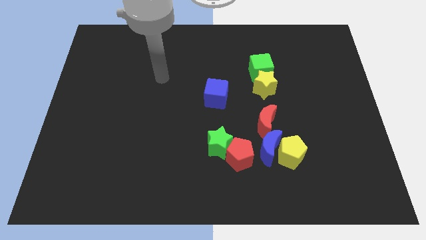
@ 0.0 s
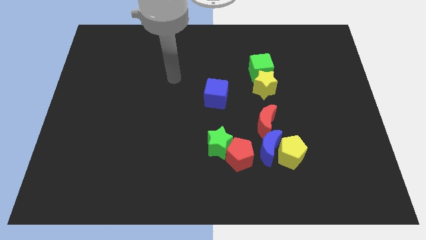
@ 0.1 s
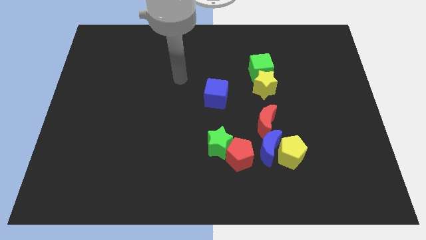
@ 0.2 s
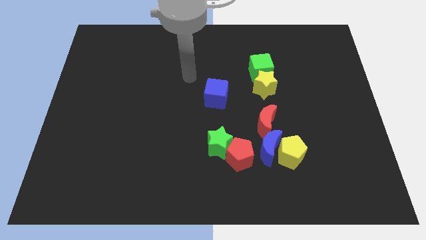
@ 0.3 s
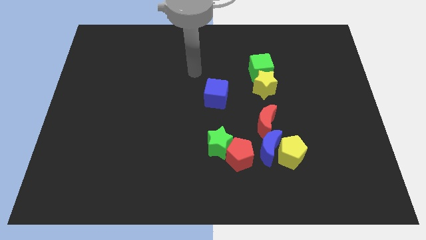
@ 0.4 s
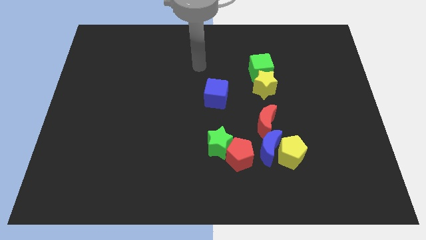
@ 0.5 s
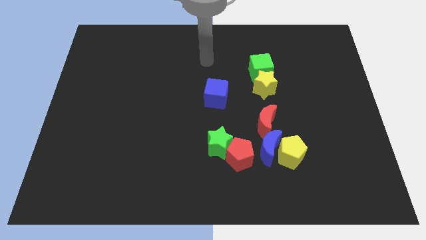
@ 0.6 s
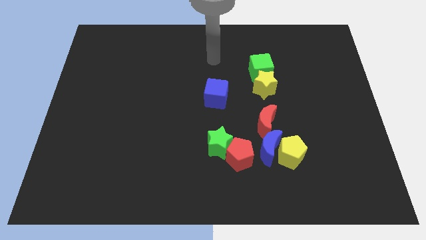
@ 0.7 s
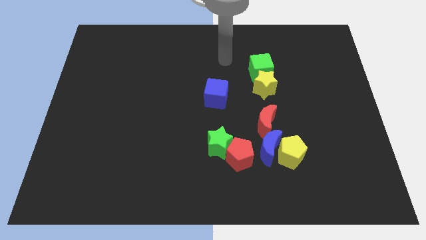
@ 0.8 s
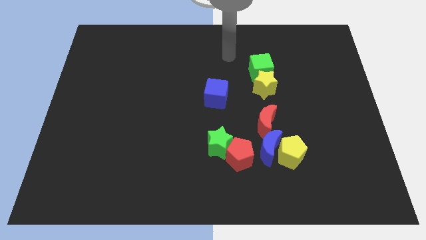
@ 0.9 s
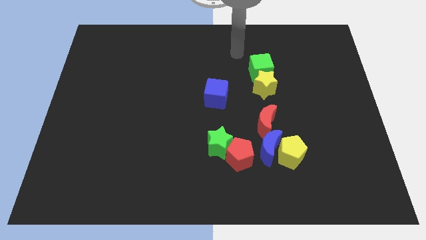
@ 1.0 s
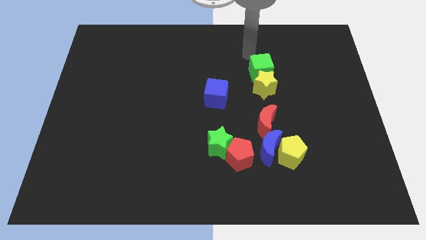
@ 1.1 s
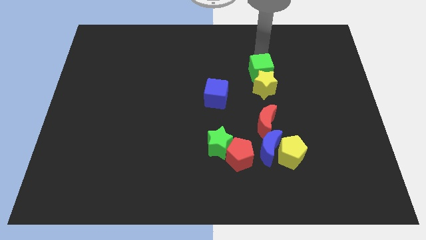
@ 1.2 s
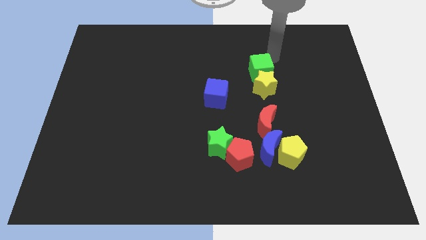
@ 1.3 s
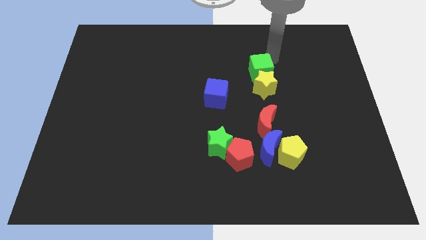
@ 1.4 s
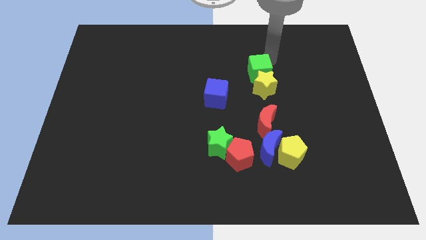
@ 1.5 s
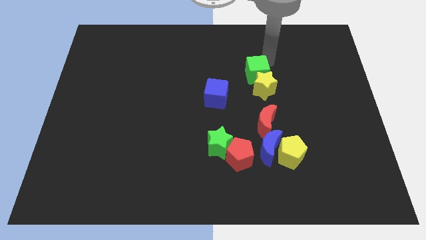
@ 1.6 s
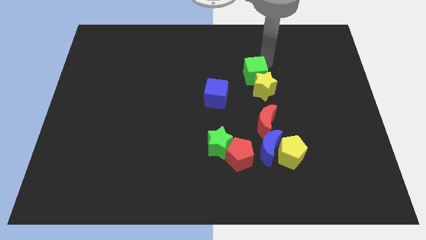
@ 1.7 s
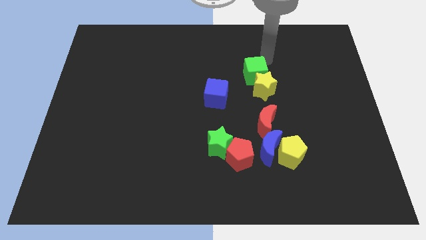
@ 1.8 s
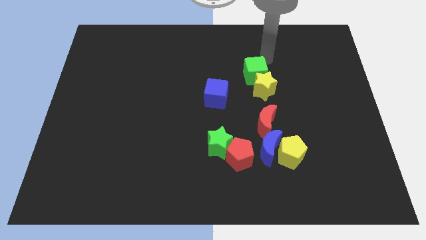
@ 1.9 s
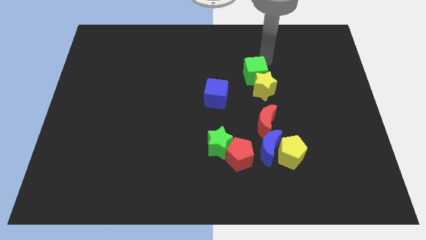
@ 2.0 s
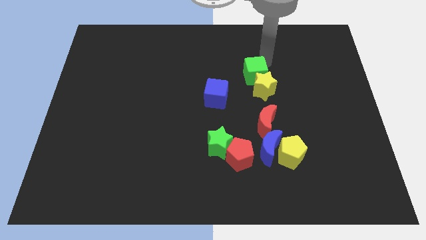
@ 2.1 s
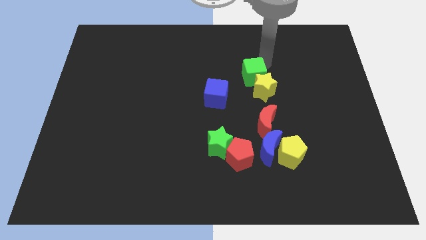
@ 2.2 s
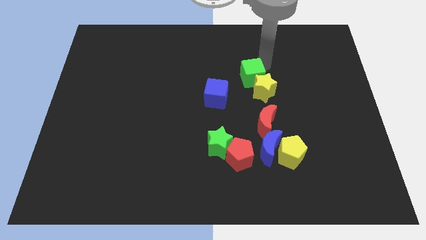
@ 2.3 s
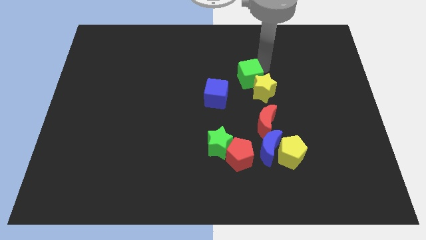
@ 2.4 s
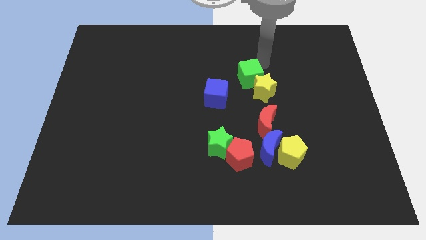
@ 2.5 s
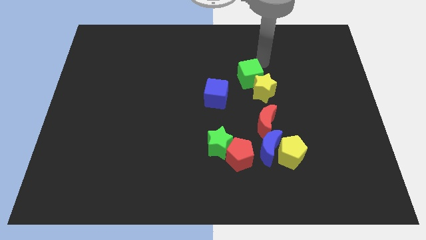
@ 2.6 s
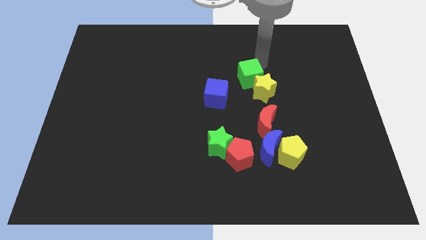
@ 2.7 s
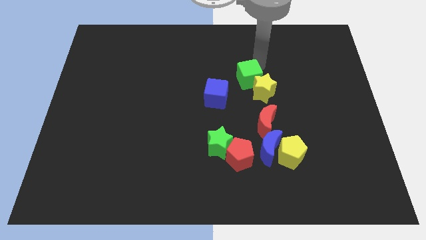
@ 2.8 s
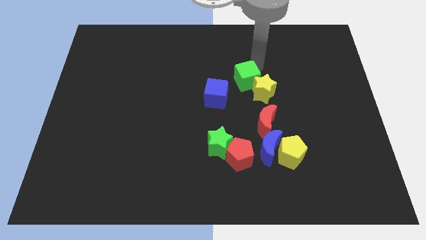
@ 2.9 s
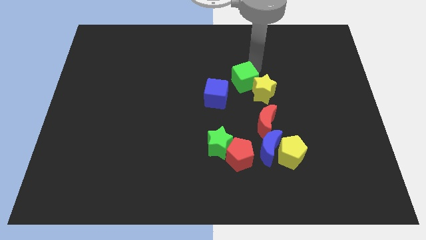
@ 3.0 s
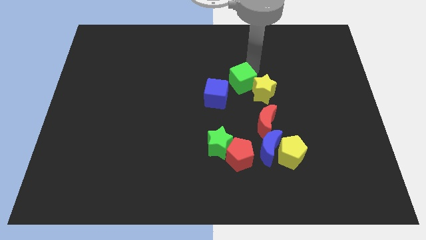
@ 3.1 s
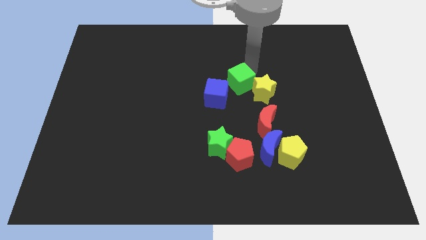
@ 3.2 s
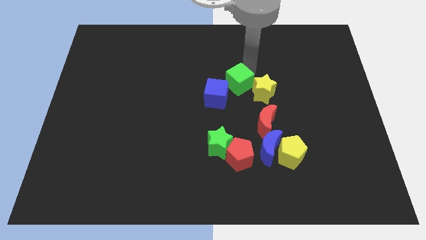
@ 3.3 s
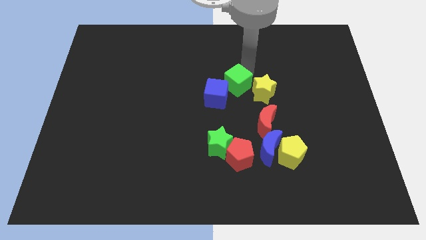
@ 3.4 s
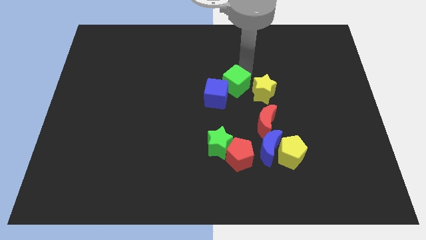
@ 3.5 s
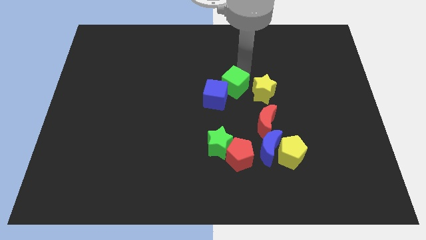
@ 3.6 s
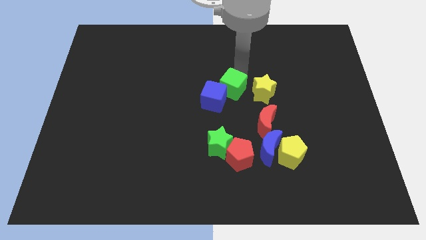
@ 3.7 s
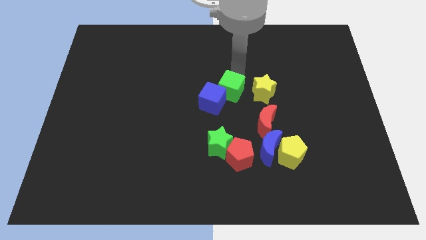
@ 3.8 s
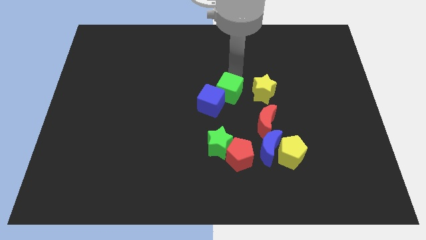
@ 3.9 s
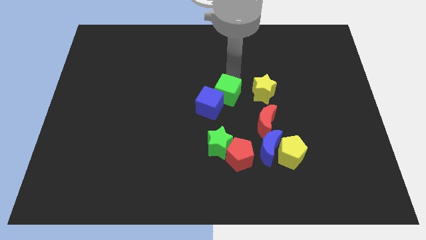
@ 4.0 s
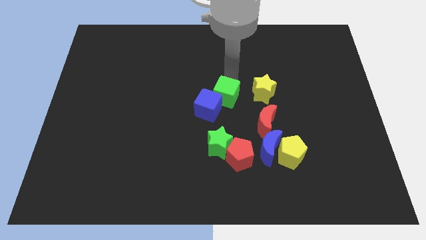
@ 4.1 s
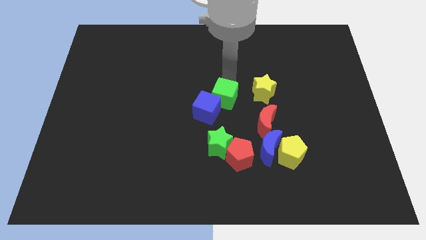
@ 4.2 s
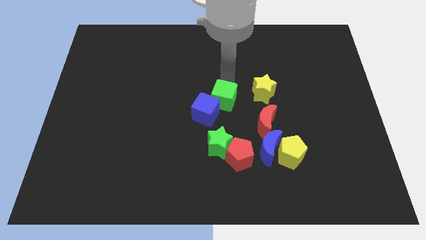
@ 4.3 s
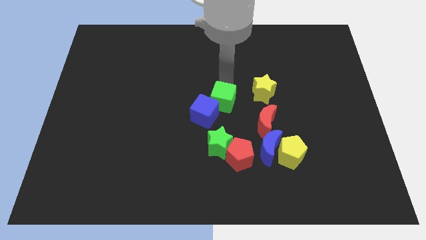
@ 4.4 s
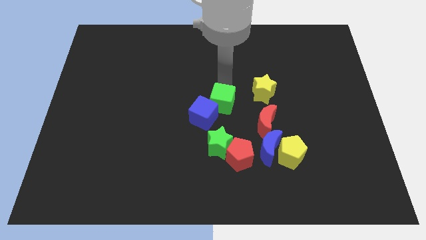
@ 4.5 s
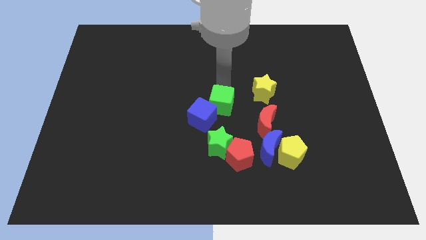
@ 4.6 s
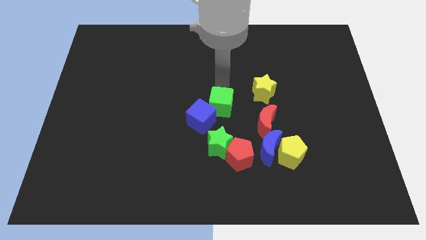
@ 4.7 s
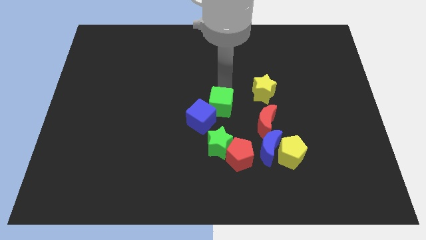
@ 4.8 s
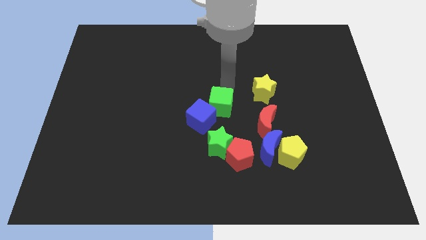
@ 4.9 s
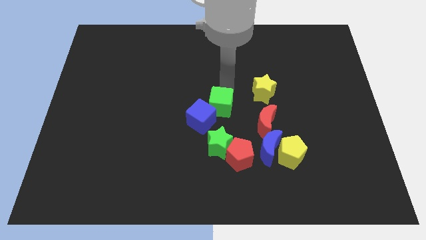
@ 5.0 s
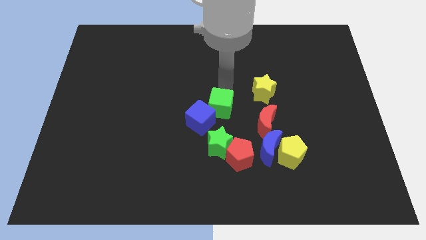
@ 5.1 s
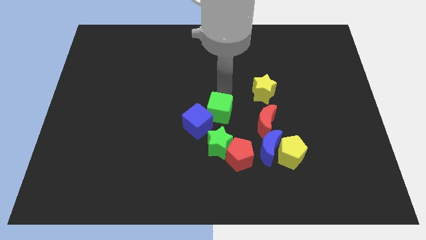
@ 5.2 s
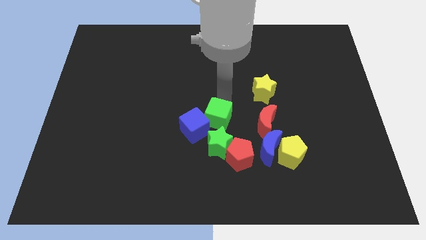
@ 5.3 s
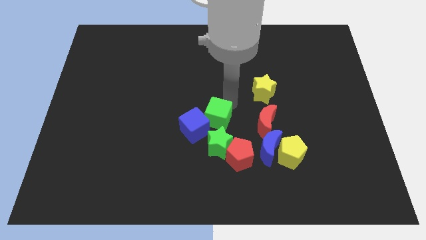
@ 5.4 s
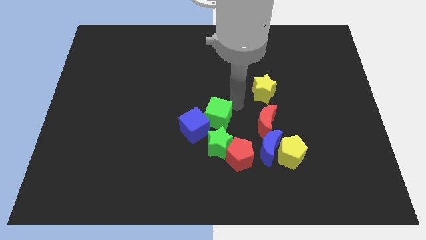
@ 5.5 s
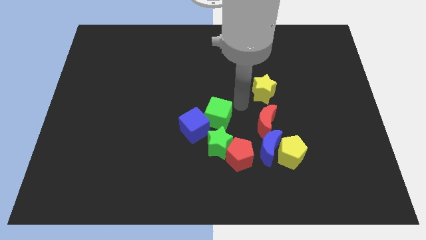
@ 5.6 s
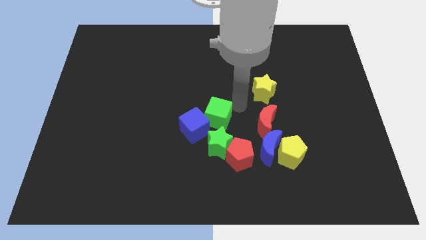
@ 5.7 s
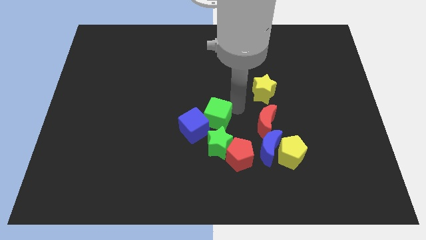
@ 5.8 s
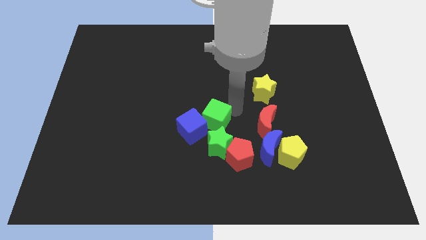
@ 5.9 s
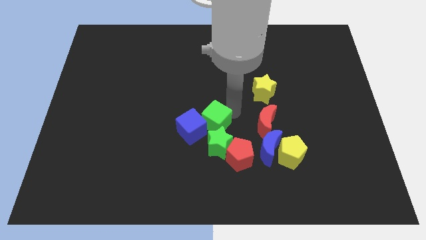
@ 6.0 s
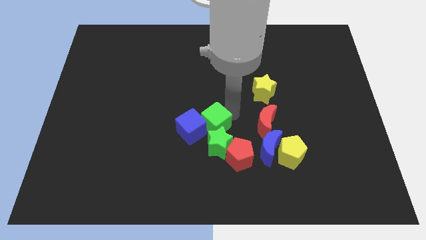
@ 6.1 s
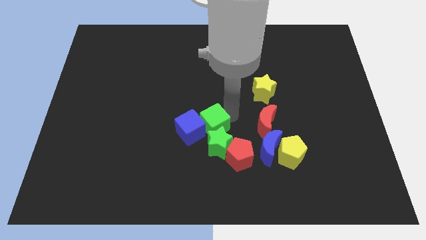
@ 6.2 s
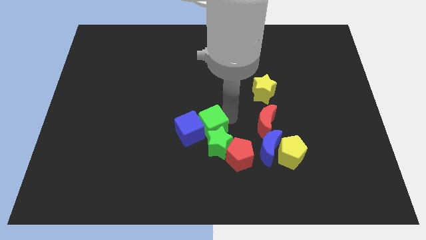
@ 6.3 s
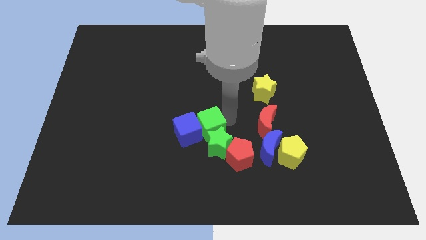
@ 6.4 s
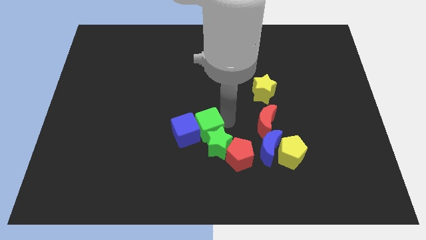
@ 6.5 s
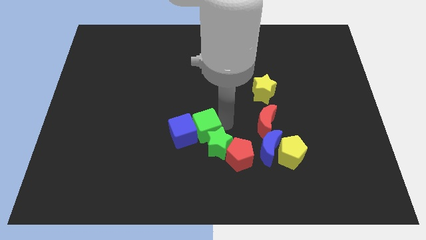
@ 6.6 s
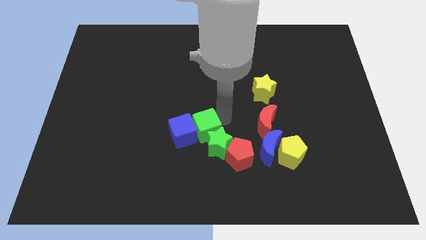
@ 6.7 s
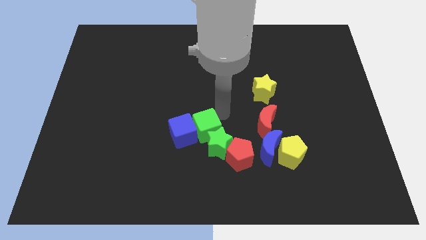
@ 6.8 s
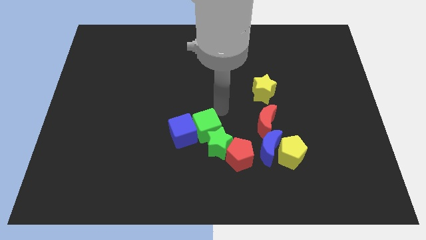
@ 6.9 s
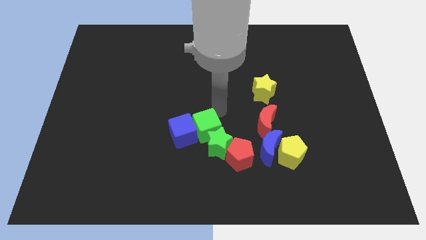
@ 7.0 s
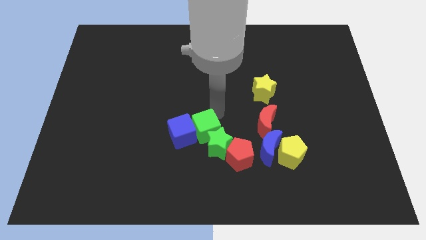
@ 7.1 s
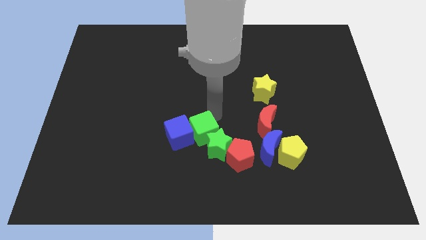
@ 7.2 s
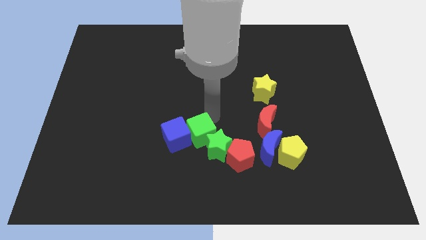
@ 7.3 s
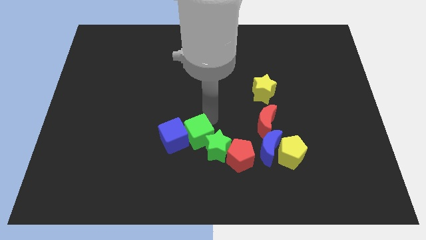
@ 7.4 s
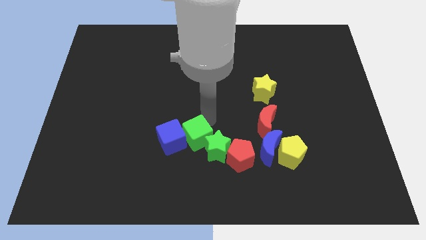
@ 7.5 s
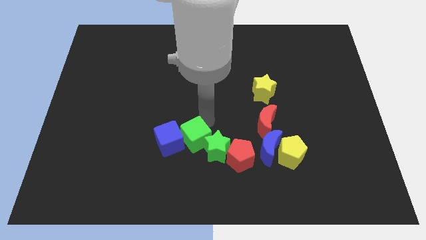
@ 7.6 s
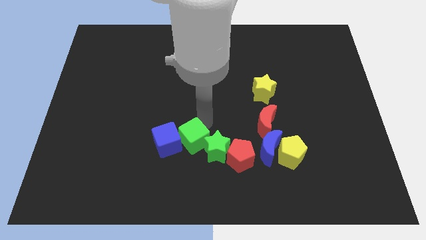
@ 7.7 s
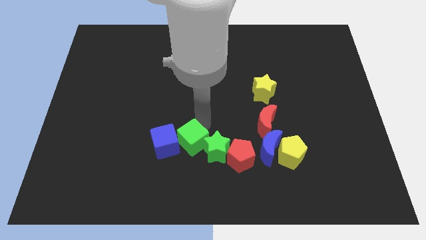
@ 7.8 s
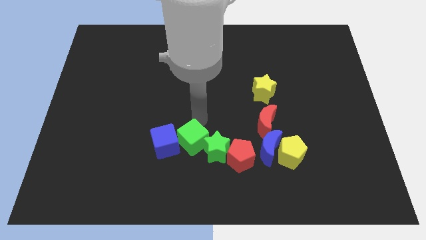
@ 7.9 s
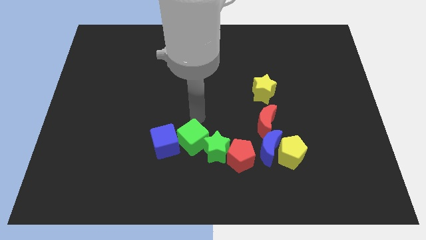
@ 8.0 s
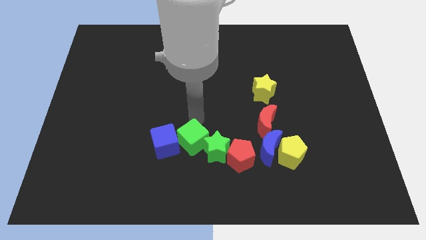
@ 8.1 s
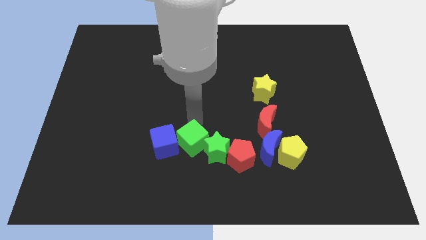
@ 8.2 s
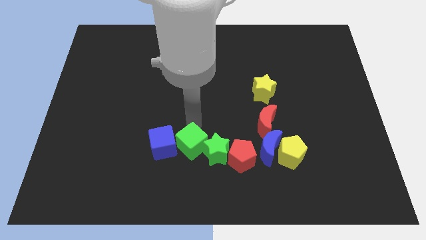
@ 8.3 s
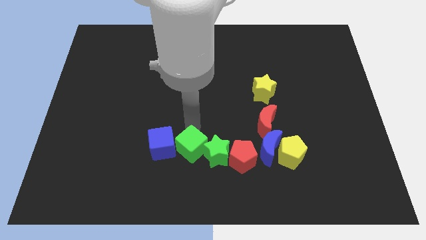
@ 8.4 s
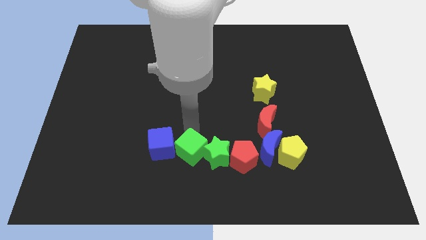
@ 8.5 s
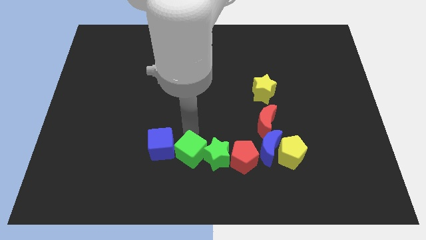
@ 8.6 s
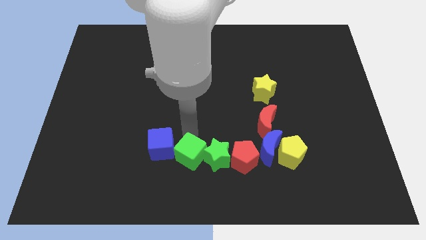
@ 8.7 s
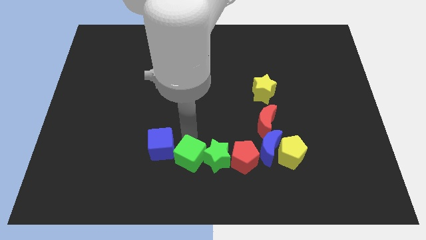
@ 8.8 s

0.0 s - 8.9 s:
push the green cube to the bottom
